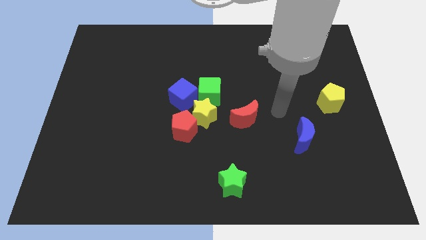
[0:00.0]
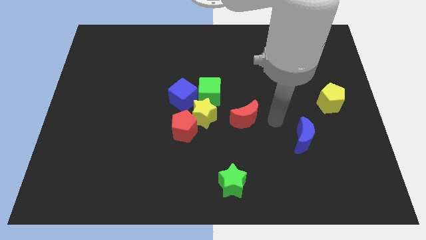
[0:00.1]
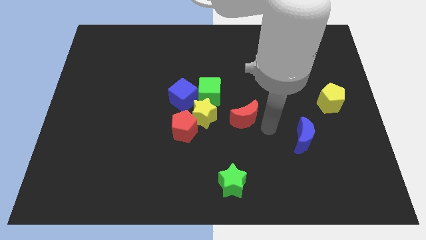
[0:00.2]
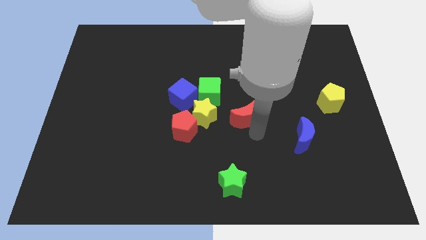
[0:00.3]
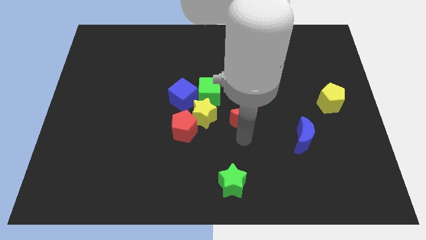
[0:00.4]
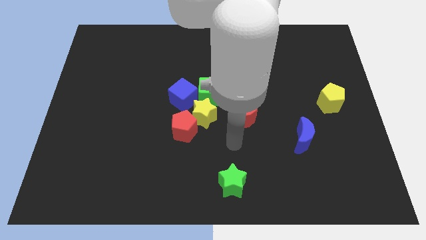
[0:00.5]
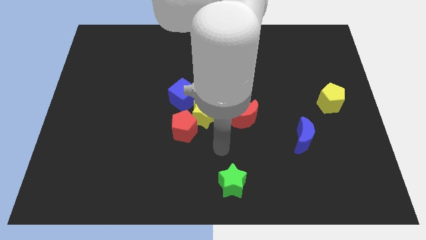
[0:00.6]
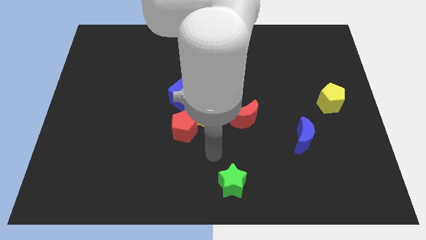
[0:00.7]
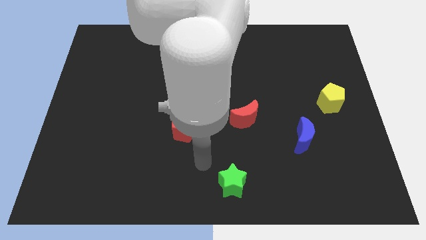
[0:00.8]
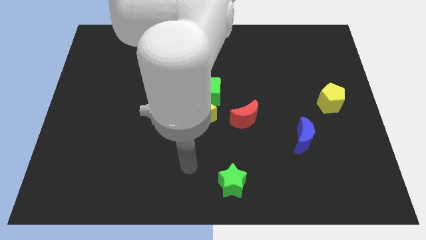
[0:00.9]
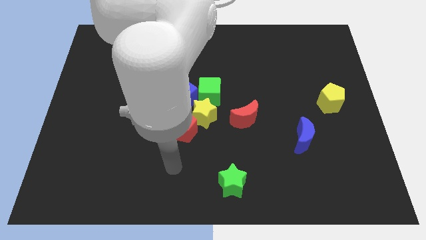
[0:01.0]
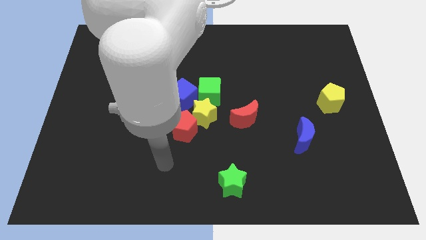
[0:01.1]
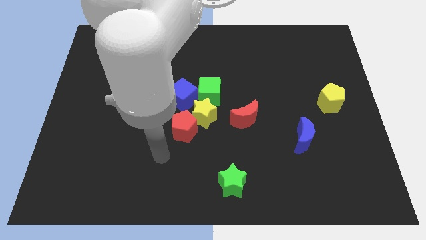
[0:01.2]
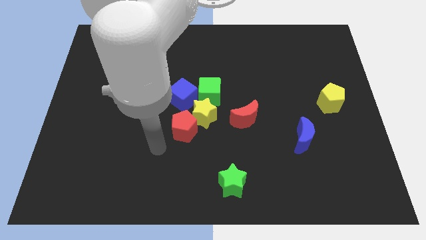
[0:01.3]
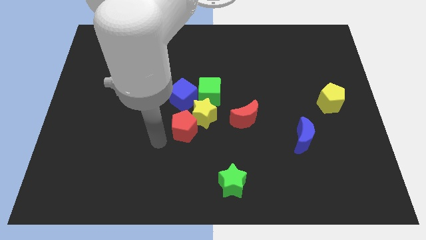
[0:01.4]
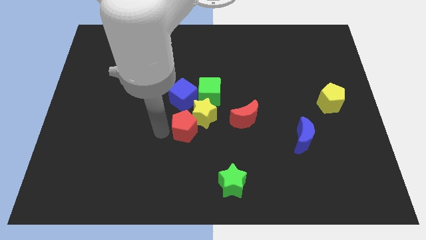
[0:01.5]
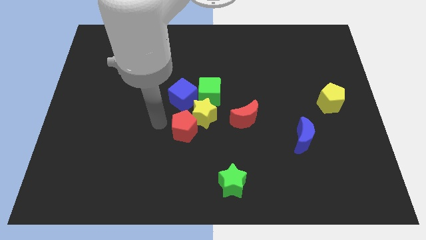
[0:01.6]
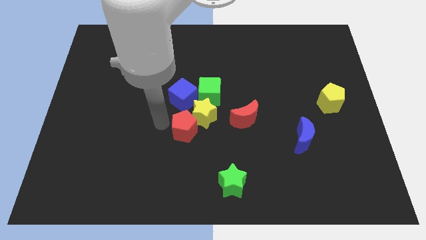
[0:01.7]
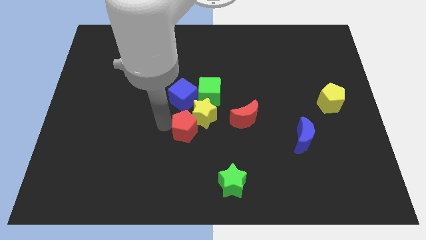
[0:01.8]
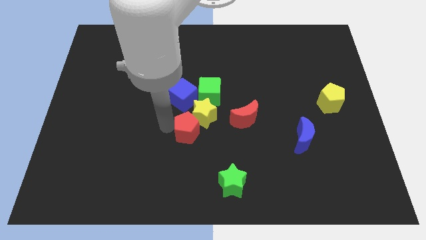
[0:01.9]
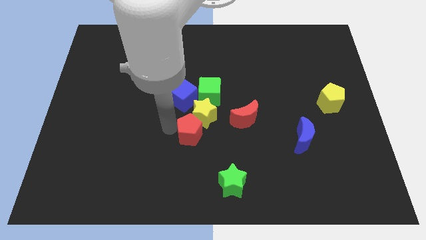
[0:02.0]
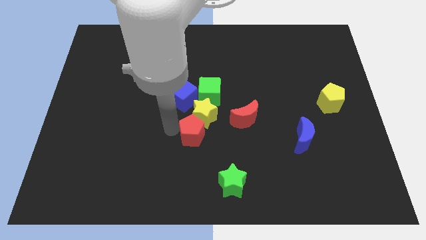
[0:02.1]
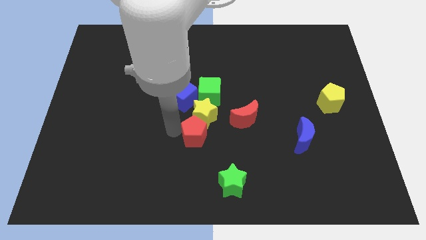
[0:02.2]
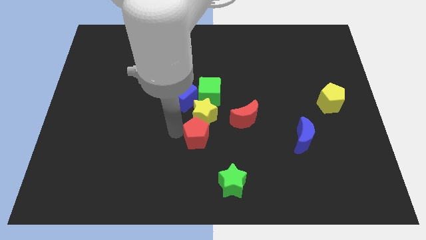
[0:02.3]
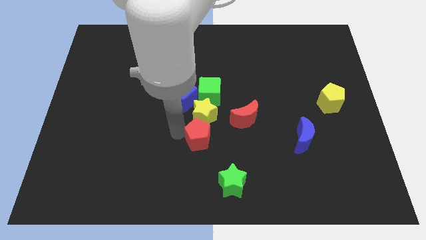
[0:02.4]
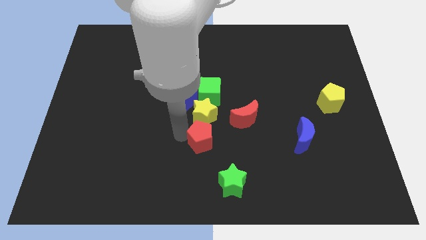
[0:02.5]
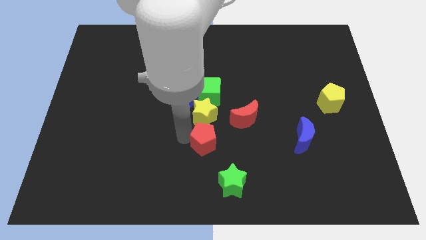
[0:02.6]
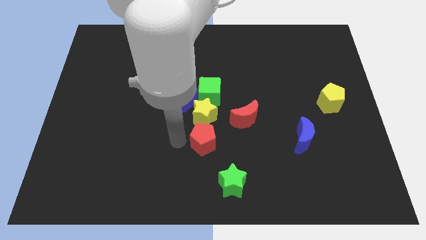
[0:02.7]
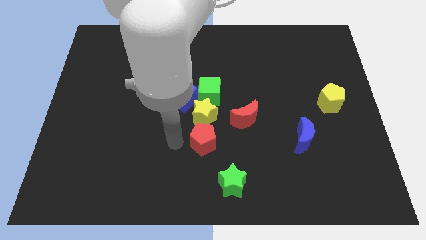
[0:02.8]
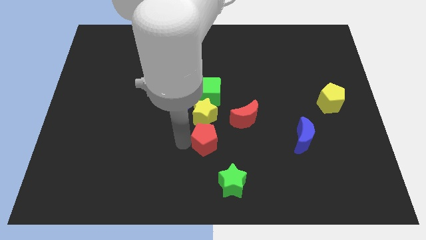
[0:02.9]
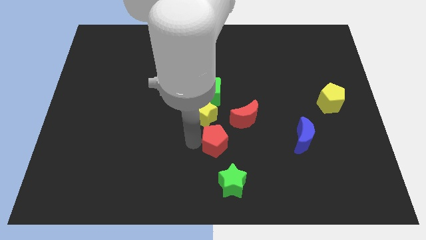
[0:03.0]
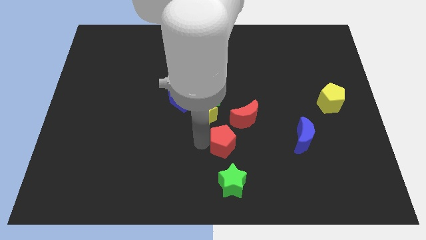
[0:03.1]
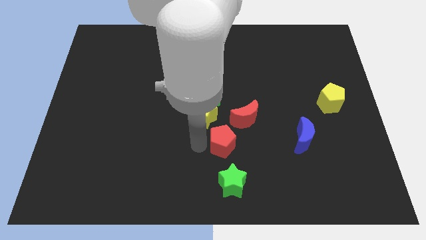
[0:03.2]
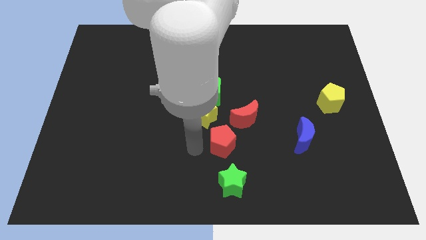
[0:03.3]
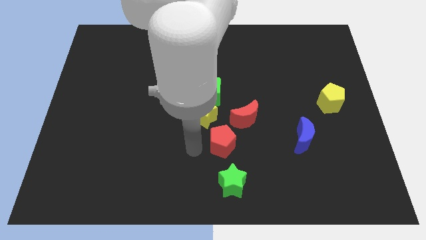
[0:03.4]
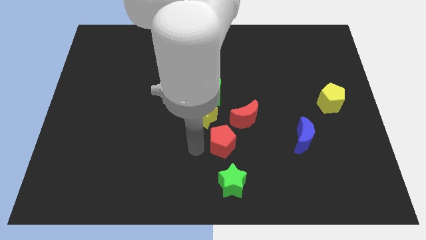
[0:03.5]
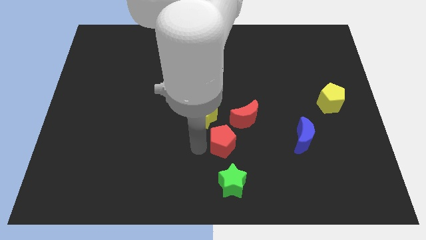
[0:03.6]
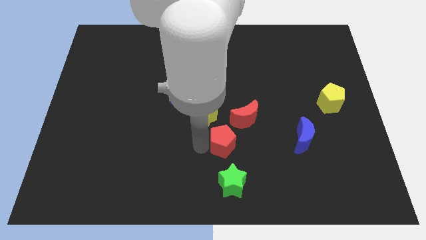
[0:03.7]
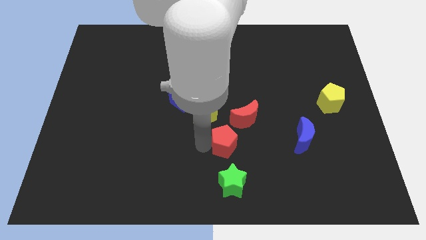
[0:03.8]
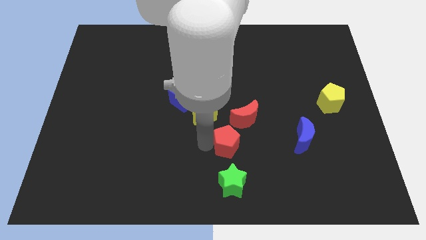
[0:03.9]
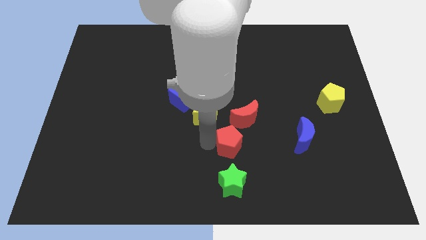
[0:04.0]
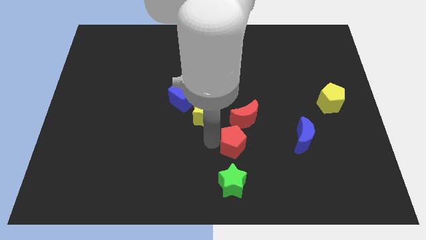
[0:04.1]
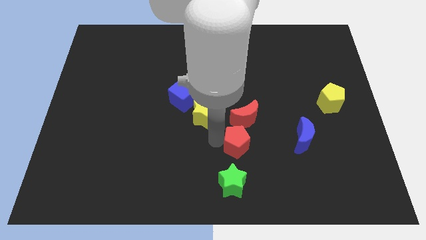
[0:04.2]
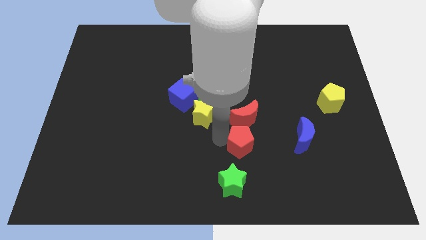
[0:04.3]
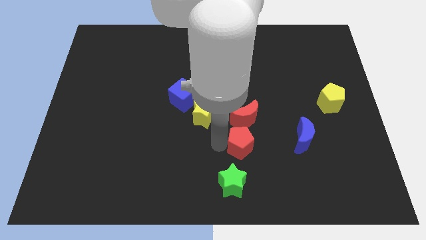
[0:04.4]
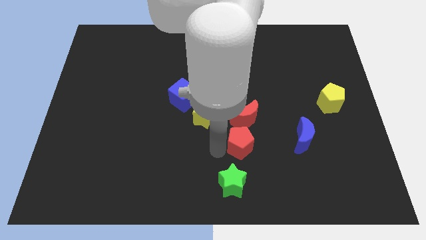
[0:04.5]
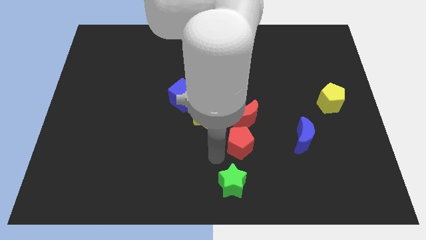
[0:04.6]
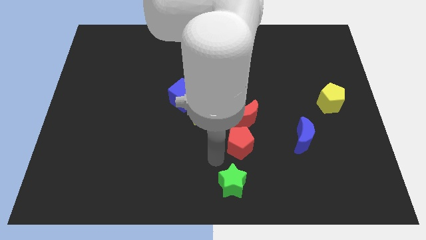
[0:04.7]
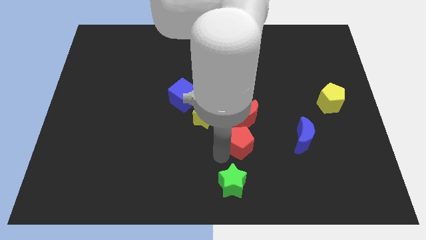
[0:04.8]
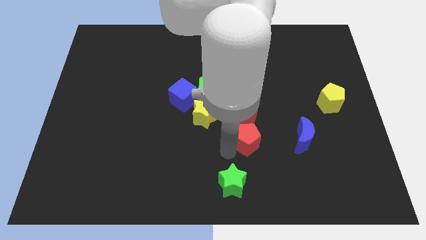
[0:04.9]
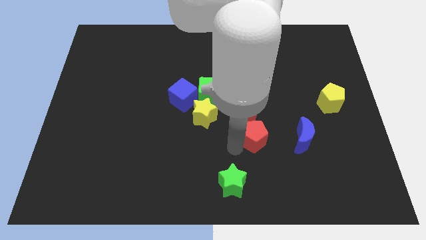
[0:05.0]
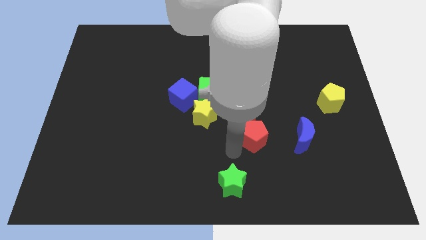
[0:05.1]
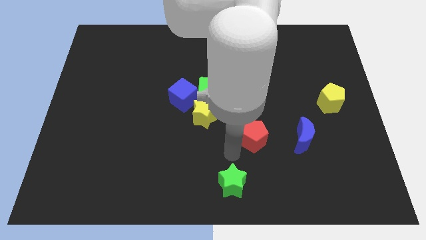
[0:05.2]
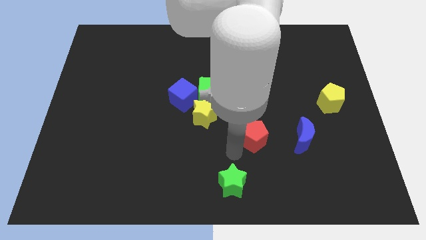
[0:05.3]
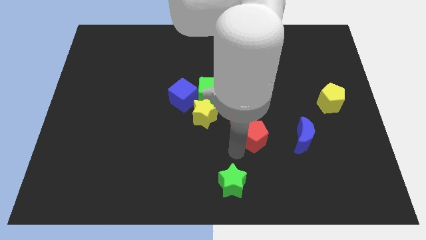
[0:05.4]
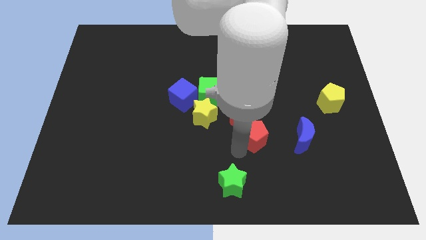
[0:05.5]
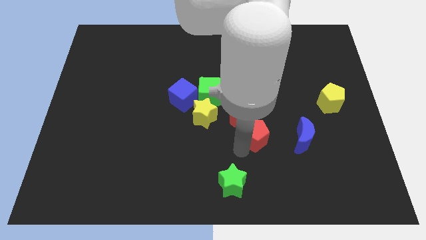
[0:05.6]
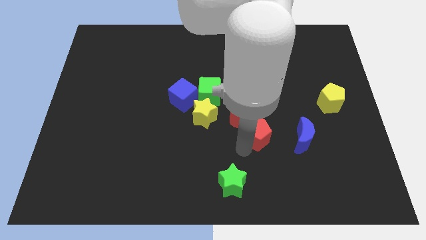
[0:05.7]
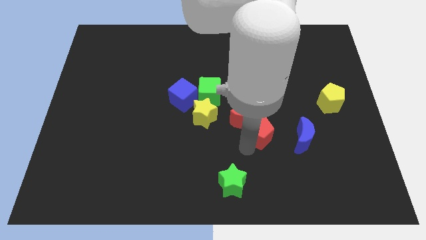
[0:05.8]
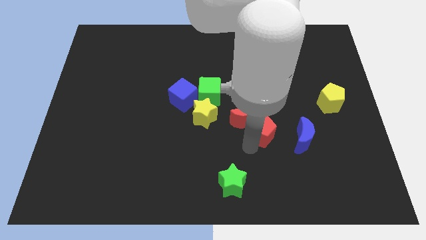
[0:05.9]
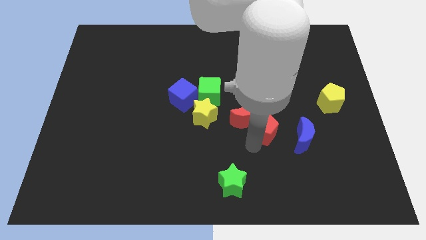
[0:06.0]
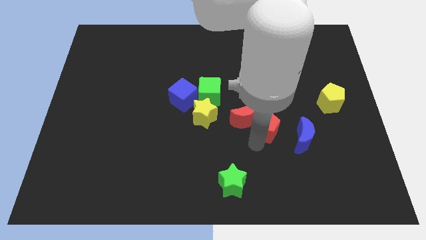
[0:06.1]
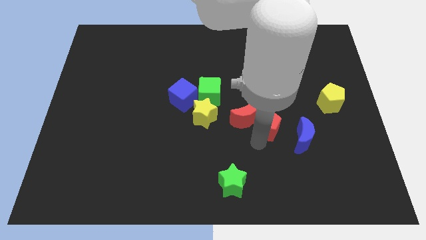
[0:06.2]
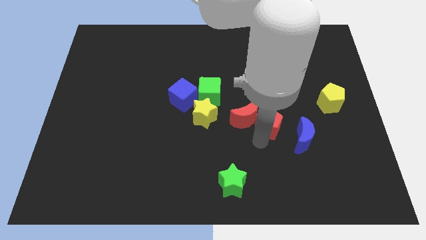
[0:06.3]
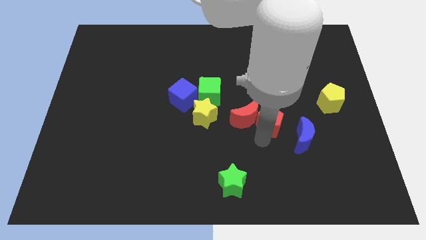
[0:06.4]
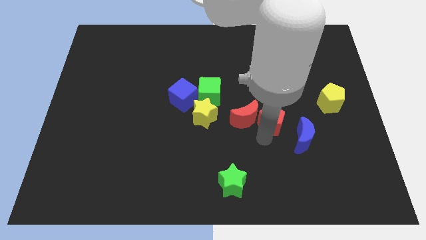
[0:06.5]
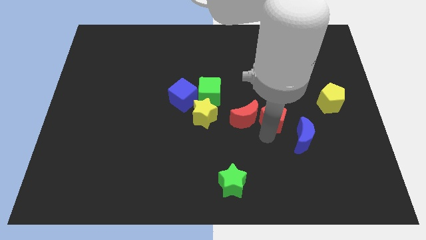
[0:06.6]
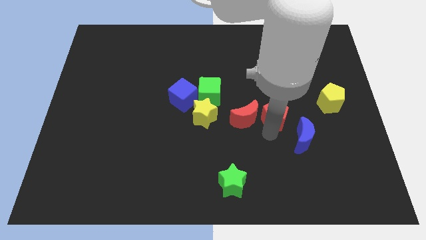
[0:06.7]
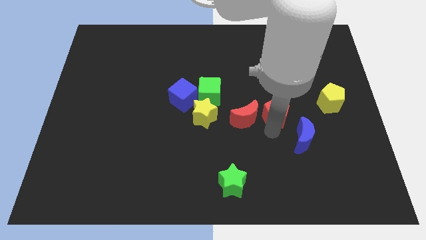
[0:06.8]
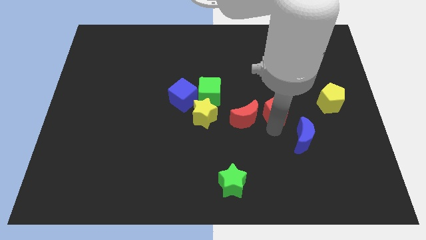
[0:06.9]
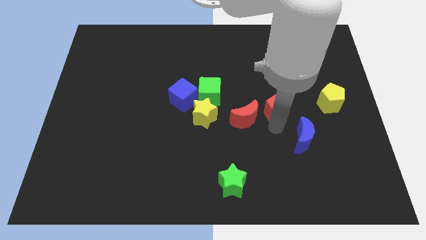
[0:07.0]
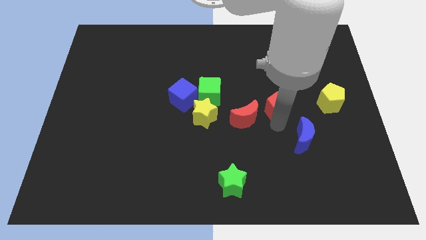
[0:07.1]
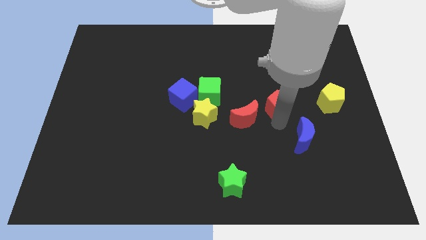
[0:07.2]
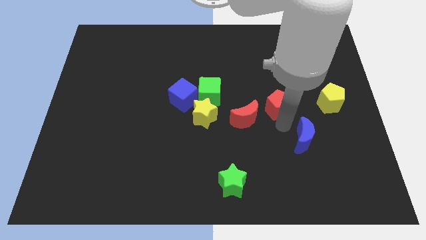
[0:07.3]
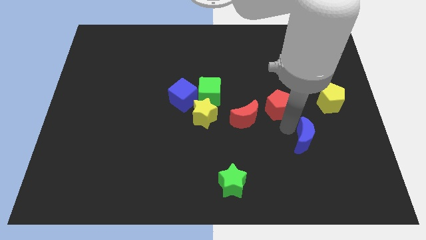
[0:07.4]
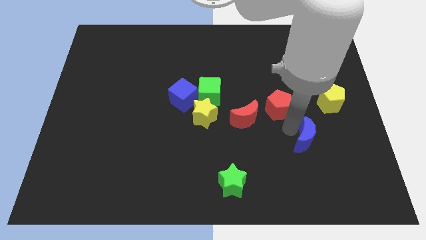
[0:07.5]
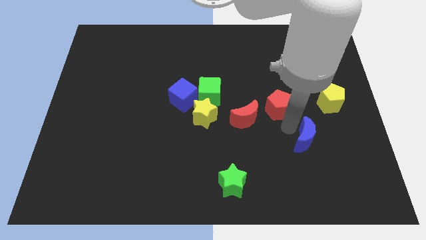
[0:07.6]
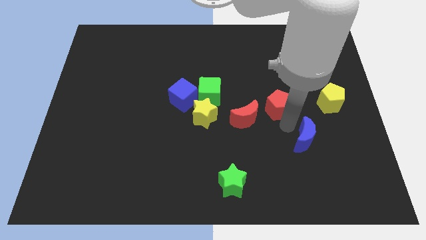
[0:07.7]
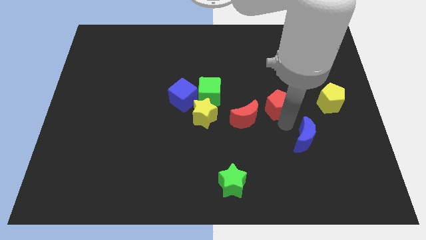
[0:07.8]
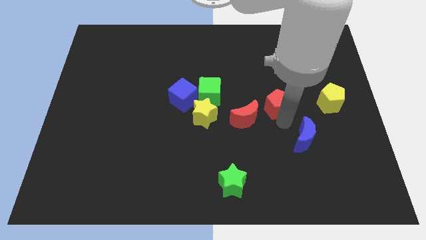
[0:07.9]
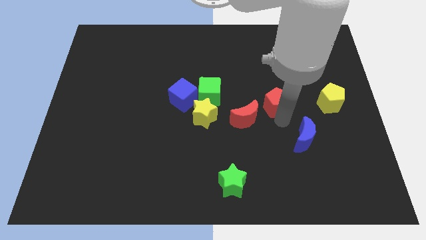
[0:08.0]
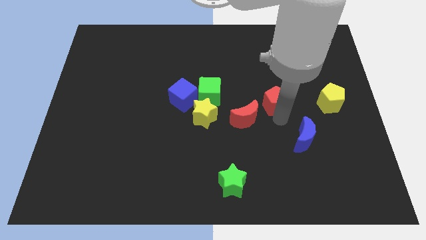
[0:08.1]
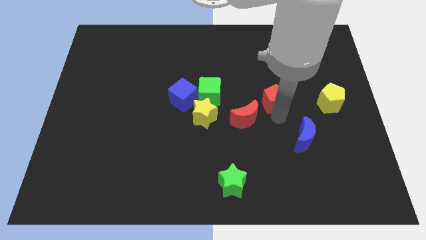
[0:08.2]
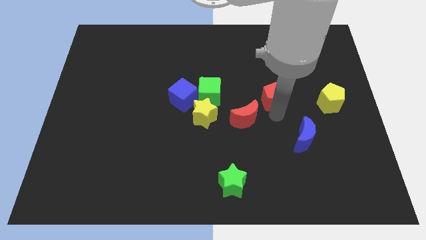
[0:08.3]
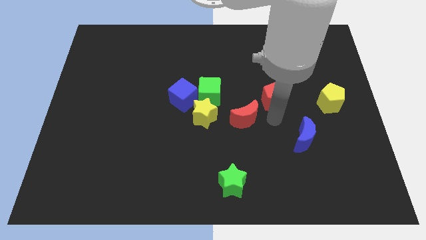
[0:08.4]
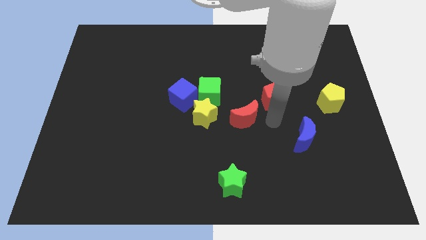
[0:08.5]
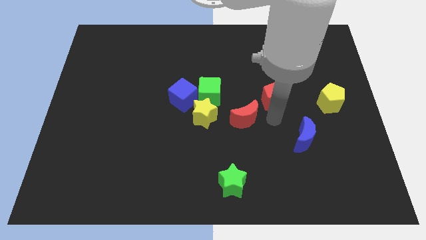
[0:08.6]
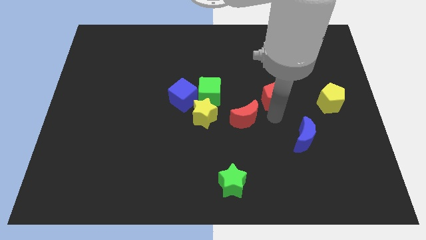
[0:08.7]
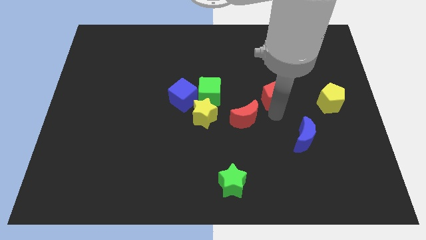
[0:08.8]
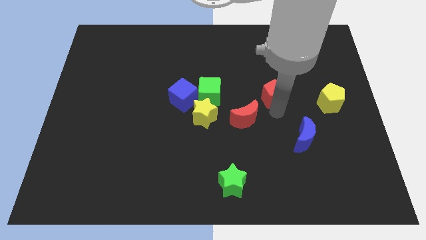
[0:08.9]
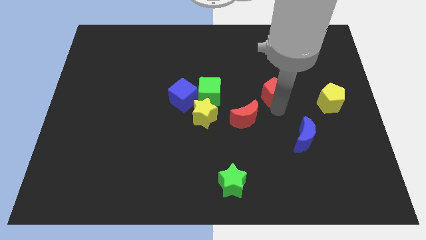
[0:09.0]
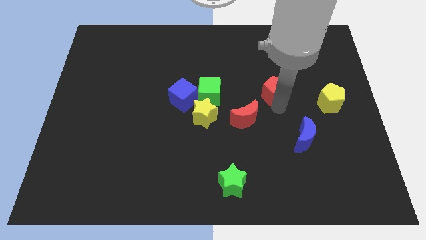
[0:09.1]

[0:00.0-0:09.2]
move the red pentagon upwards and to the right
